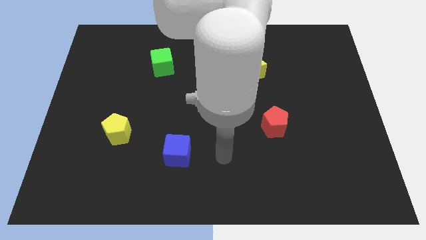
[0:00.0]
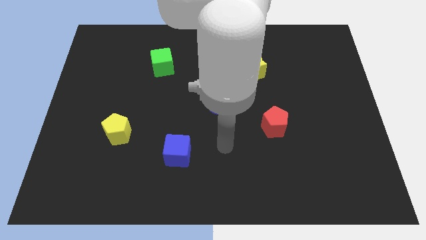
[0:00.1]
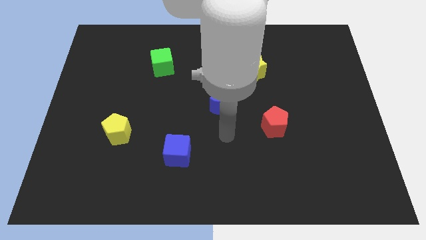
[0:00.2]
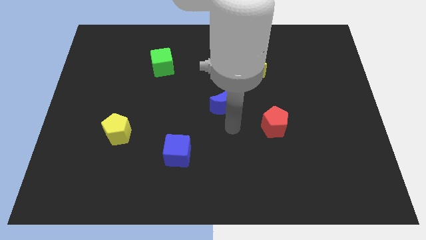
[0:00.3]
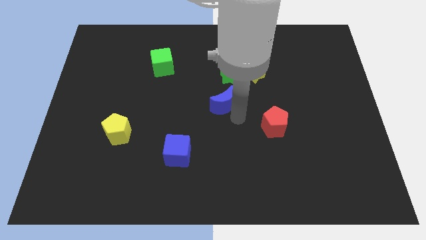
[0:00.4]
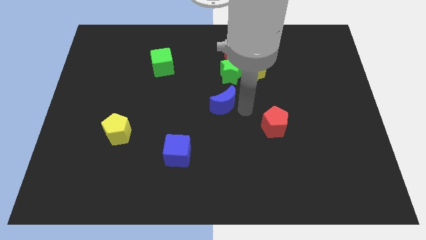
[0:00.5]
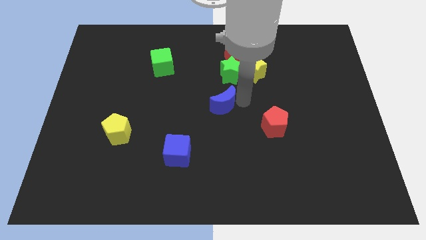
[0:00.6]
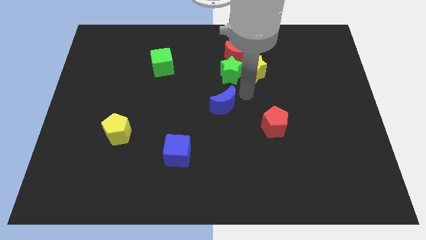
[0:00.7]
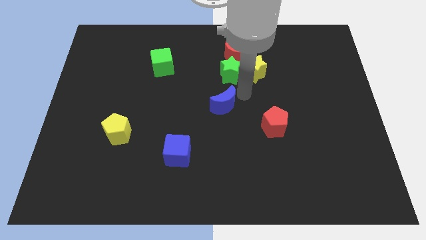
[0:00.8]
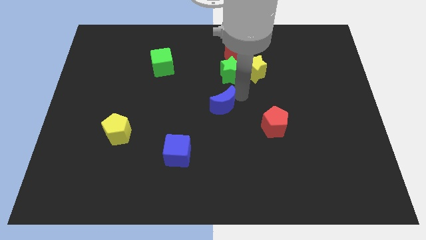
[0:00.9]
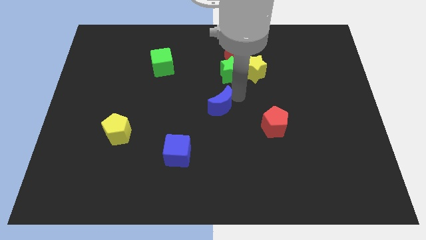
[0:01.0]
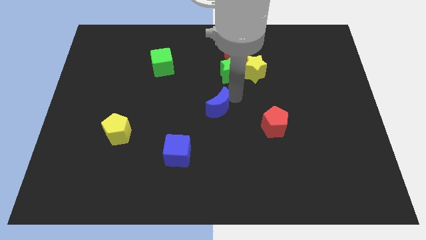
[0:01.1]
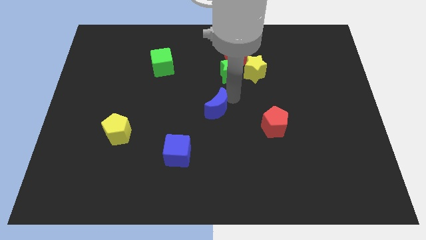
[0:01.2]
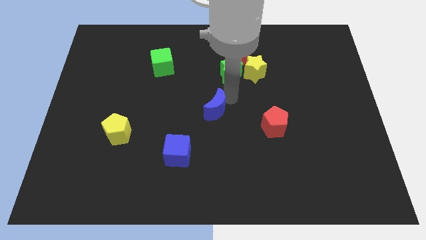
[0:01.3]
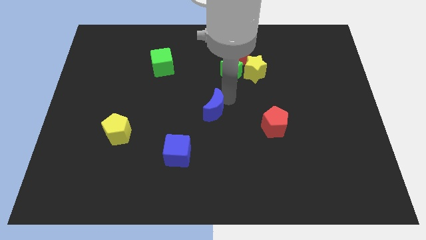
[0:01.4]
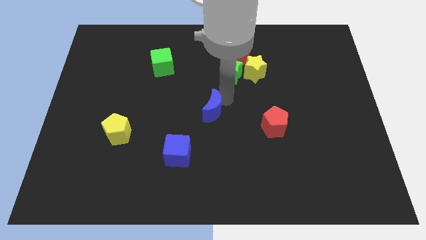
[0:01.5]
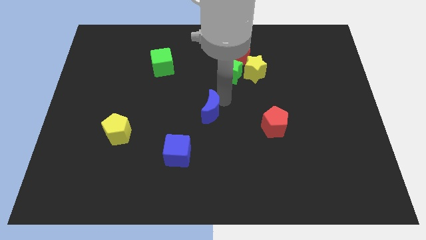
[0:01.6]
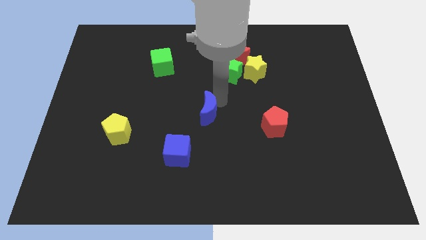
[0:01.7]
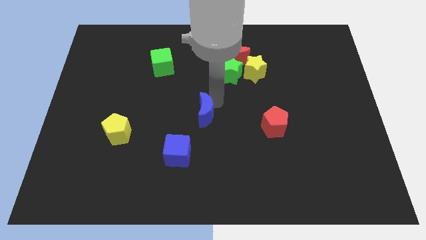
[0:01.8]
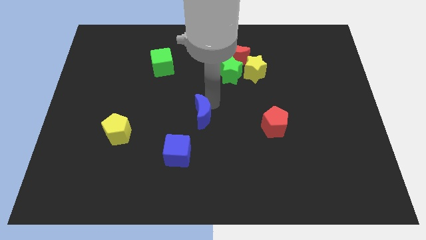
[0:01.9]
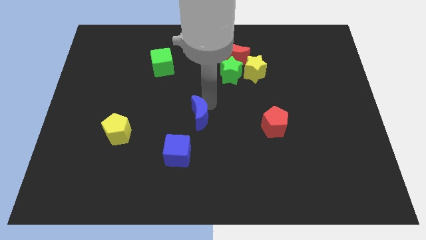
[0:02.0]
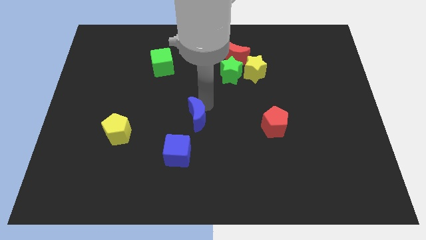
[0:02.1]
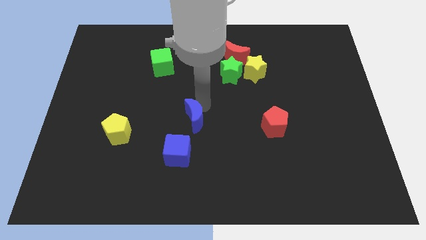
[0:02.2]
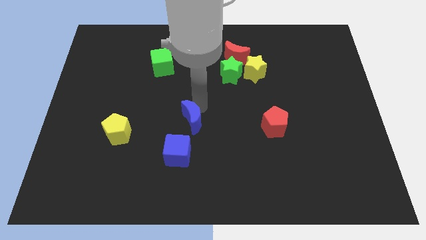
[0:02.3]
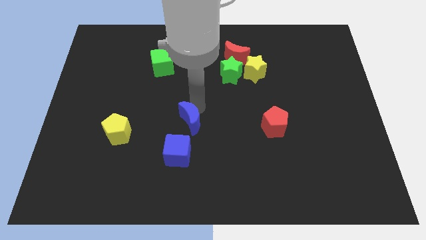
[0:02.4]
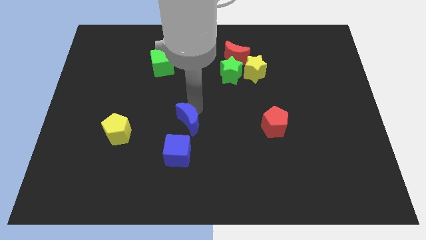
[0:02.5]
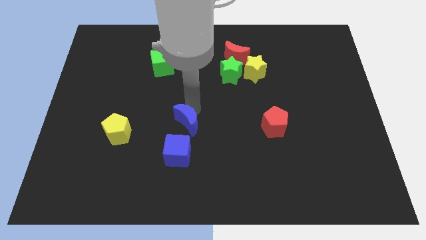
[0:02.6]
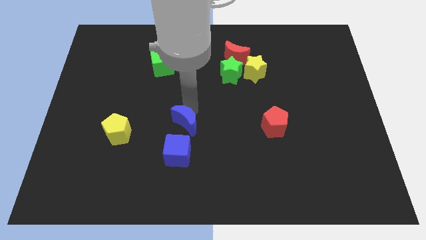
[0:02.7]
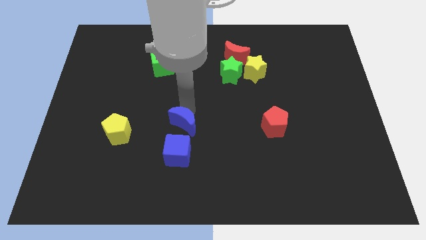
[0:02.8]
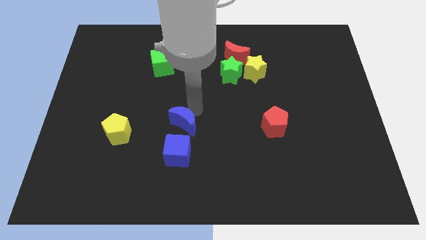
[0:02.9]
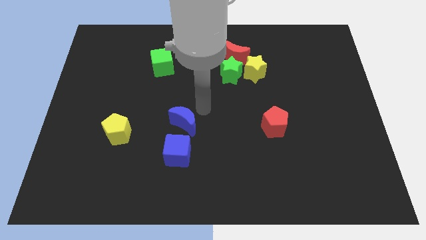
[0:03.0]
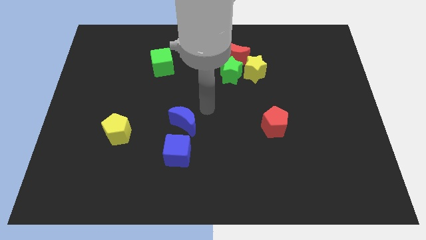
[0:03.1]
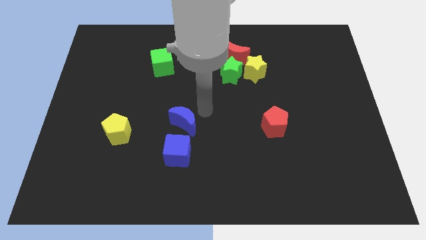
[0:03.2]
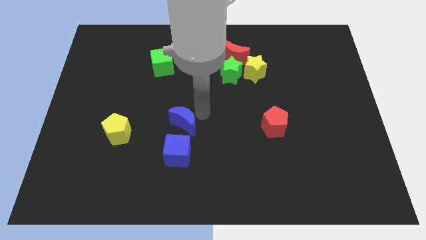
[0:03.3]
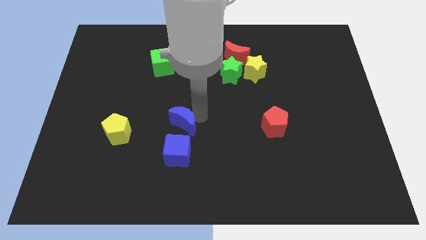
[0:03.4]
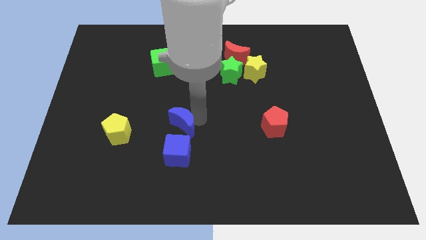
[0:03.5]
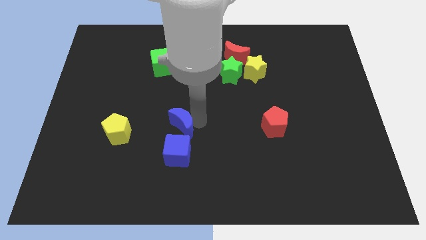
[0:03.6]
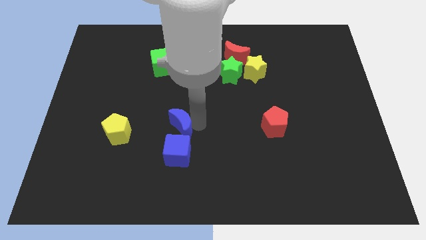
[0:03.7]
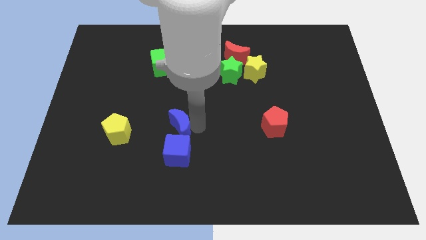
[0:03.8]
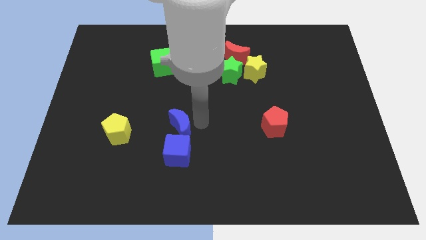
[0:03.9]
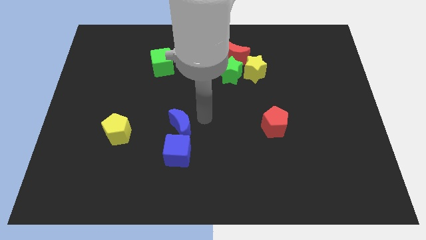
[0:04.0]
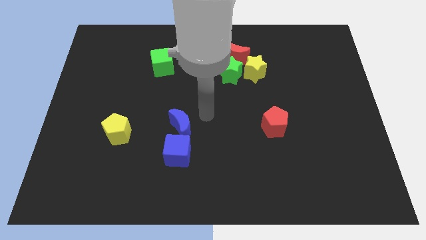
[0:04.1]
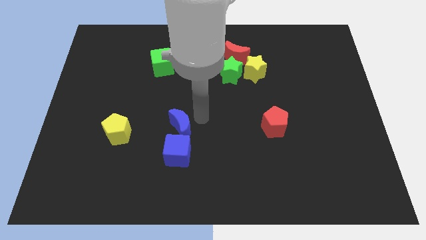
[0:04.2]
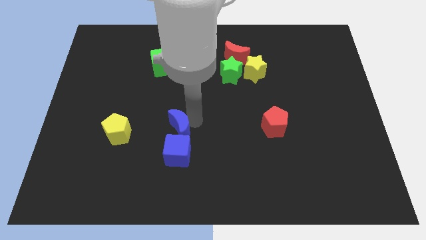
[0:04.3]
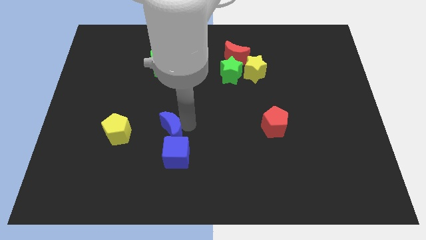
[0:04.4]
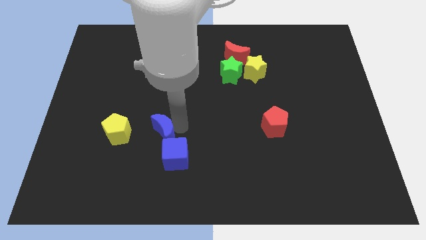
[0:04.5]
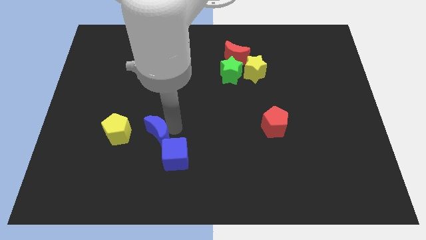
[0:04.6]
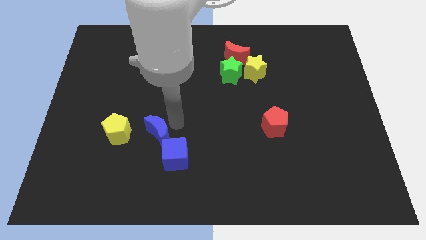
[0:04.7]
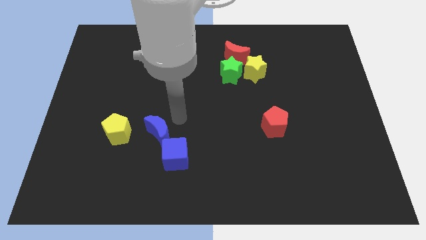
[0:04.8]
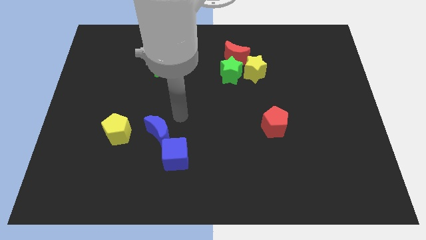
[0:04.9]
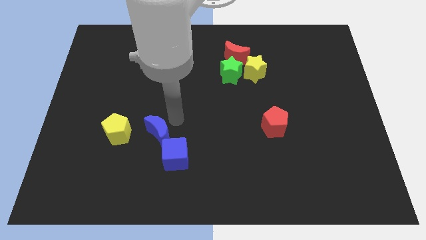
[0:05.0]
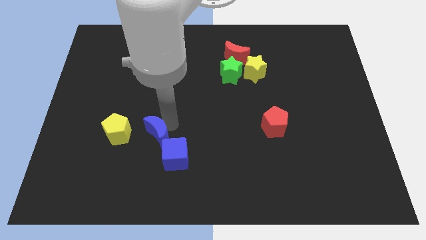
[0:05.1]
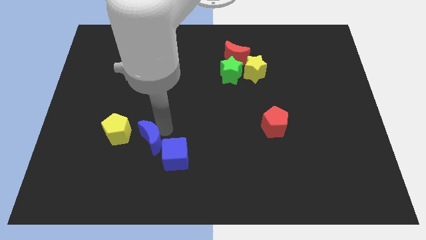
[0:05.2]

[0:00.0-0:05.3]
push the blue moon to the bottom right side of the yellow pentagon

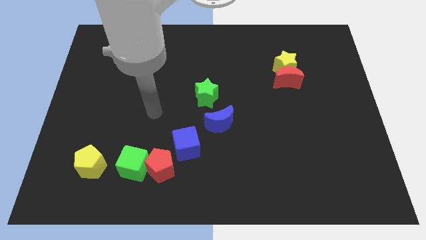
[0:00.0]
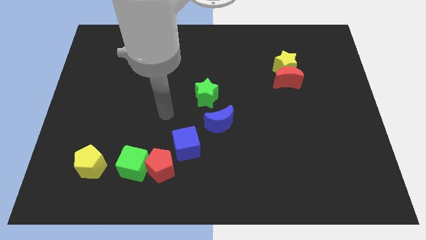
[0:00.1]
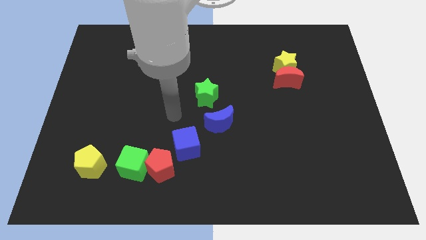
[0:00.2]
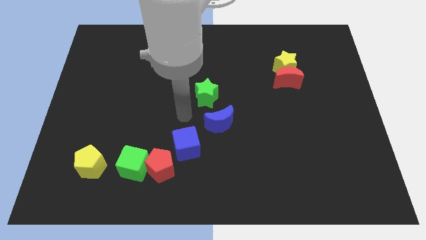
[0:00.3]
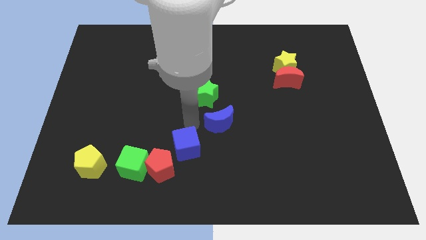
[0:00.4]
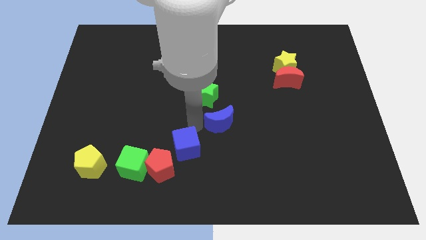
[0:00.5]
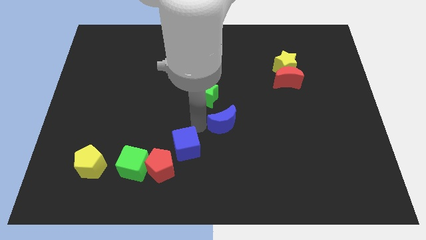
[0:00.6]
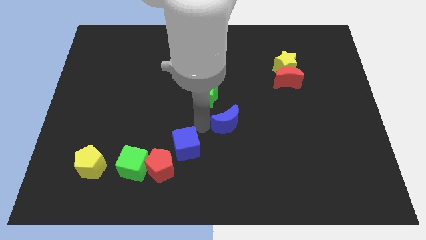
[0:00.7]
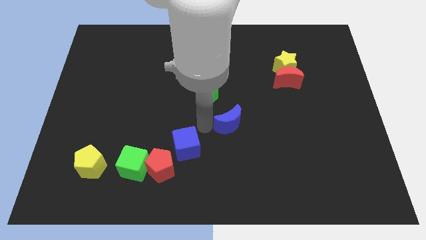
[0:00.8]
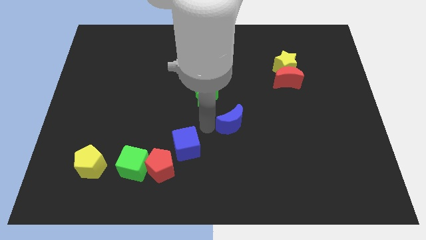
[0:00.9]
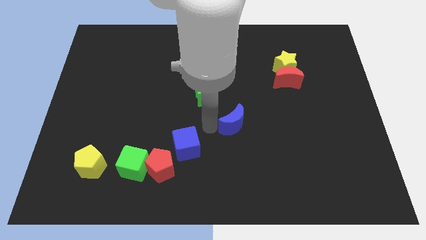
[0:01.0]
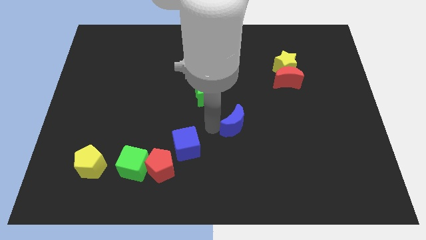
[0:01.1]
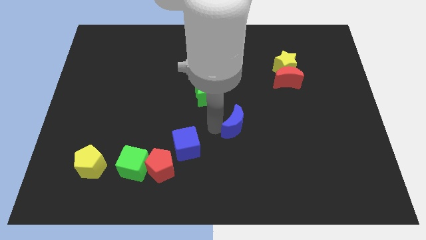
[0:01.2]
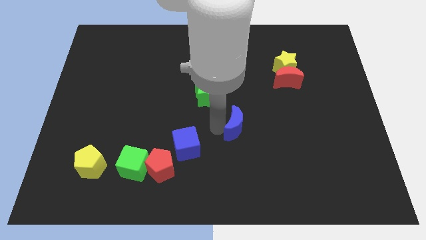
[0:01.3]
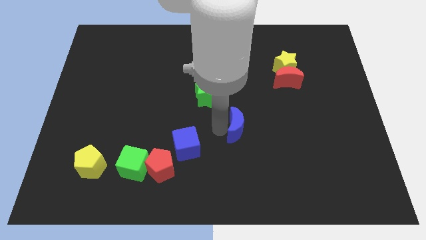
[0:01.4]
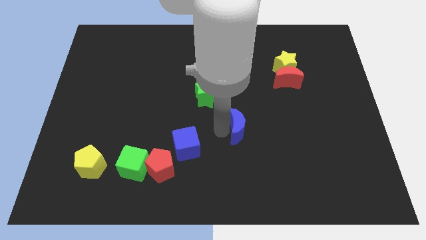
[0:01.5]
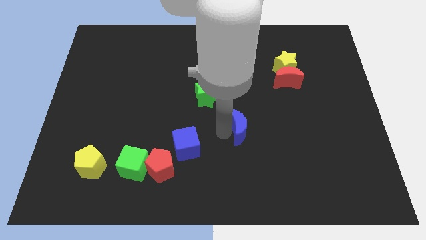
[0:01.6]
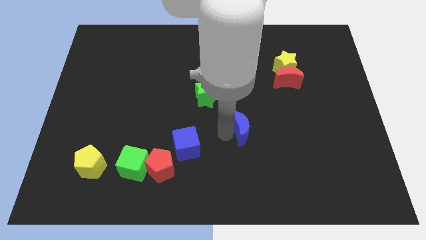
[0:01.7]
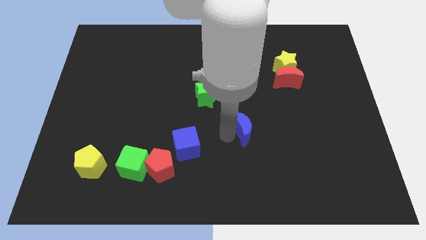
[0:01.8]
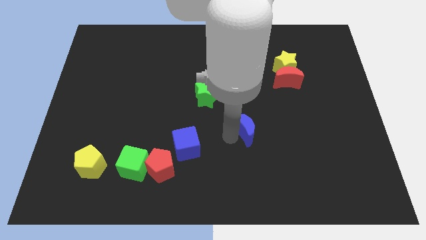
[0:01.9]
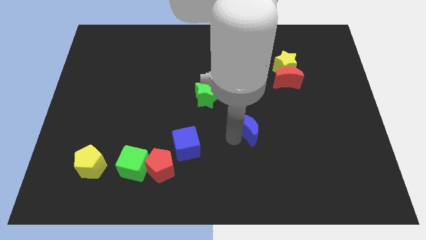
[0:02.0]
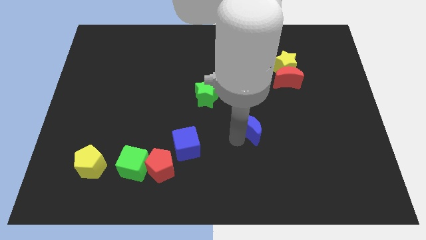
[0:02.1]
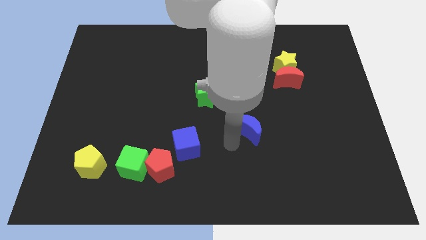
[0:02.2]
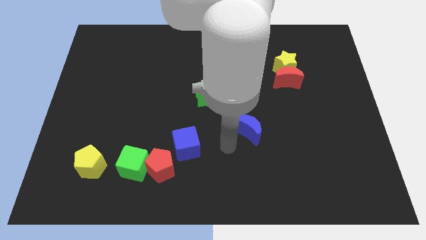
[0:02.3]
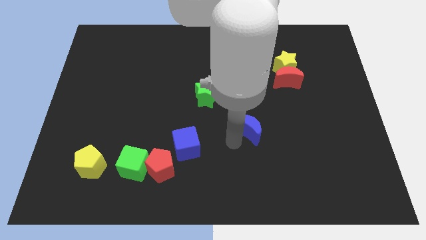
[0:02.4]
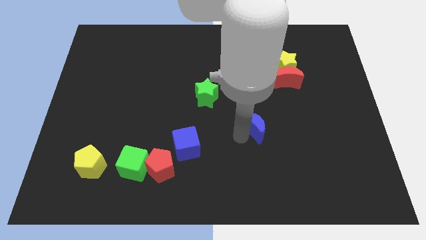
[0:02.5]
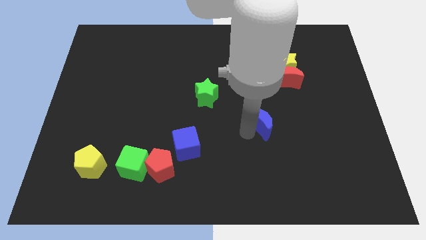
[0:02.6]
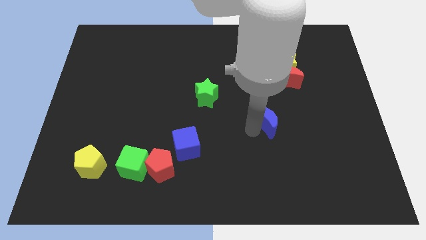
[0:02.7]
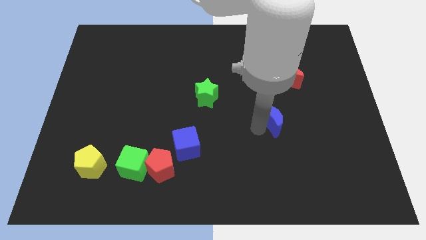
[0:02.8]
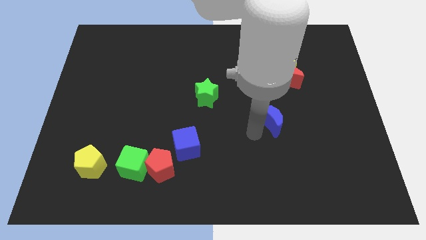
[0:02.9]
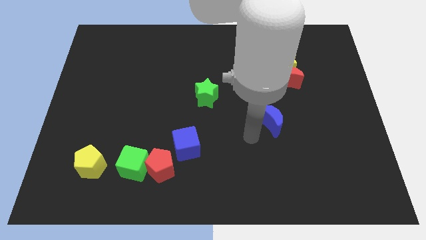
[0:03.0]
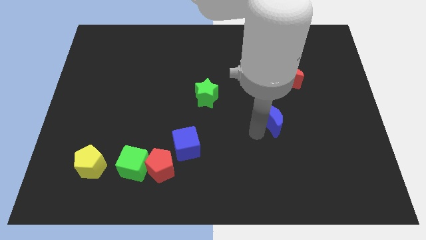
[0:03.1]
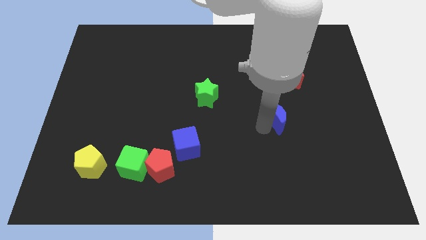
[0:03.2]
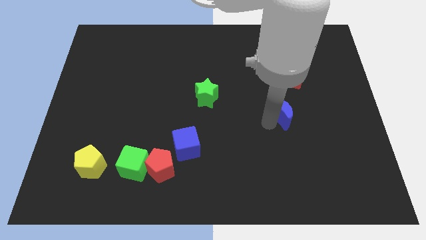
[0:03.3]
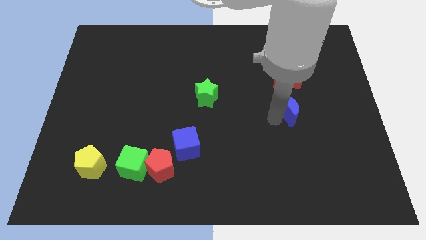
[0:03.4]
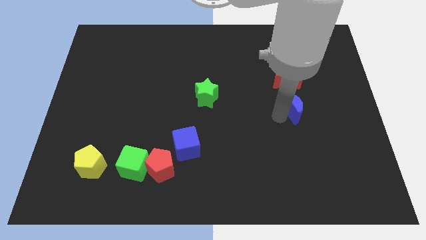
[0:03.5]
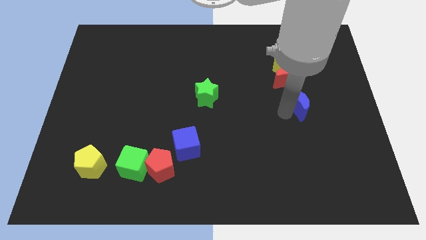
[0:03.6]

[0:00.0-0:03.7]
push the blue moon diagonally down and to the right of the red moon
